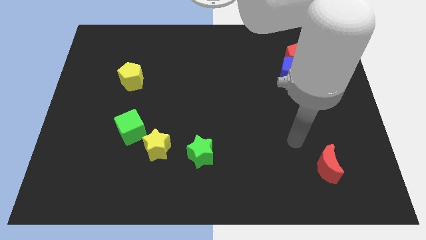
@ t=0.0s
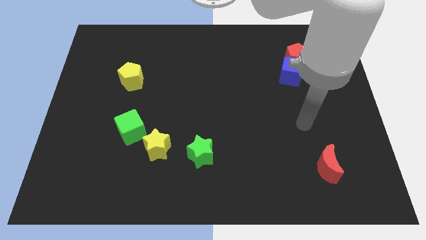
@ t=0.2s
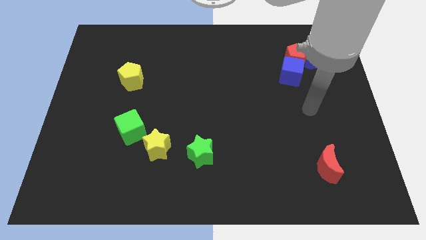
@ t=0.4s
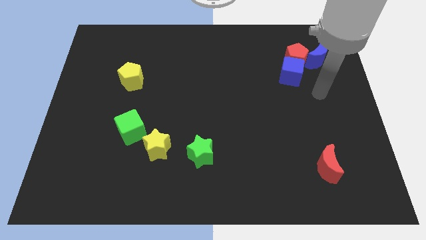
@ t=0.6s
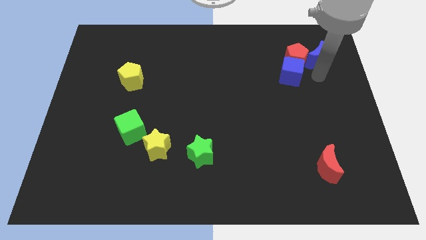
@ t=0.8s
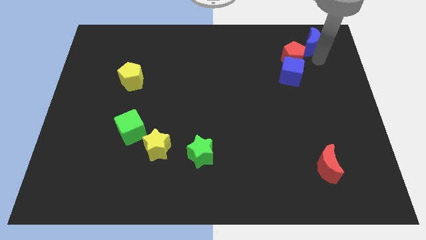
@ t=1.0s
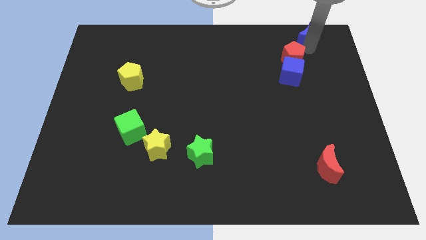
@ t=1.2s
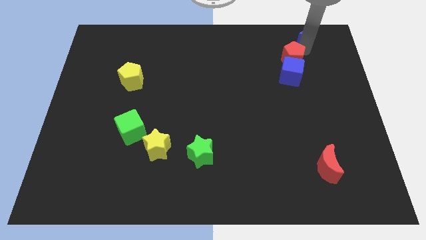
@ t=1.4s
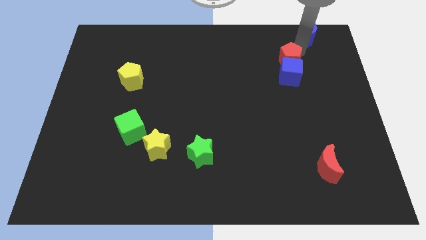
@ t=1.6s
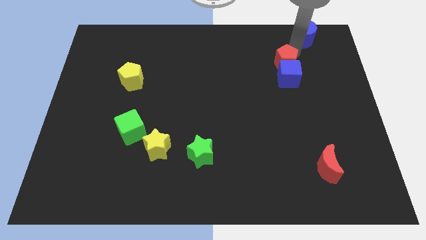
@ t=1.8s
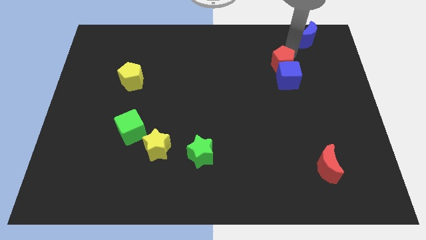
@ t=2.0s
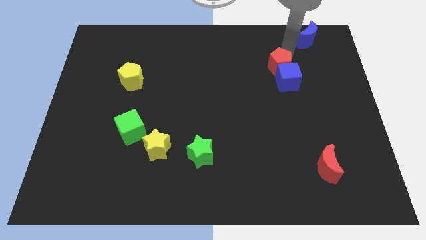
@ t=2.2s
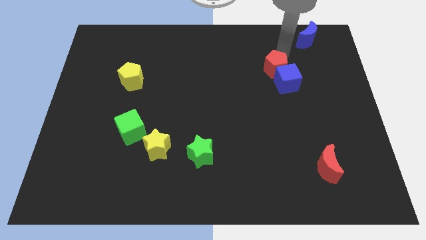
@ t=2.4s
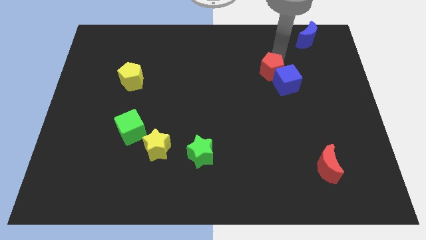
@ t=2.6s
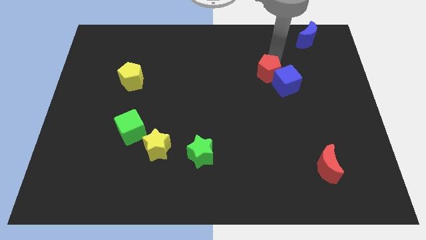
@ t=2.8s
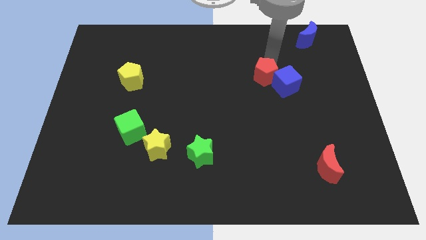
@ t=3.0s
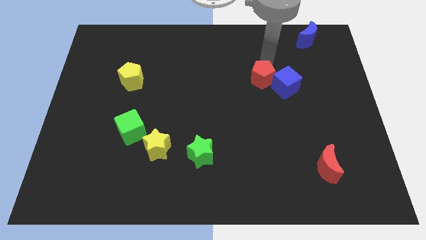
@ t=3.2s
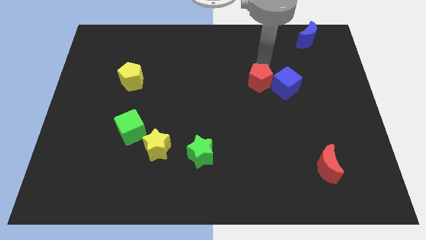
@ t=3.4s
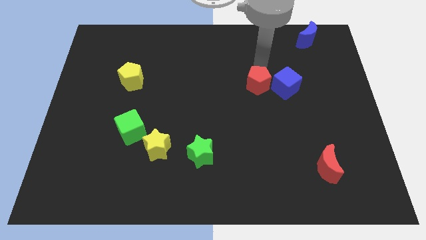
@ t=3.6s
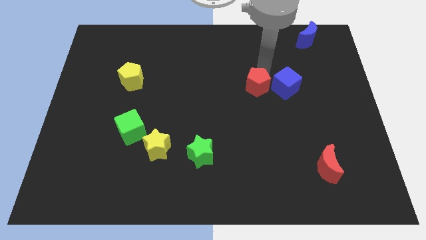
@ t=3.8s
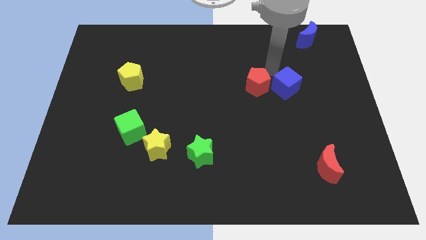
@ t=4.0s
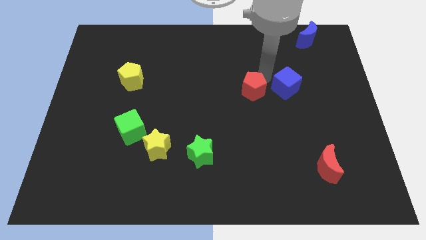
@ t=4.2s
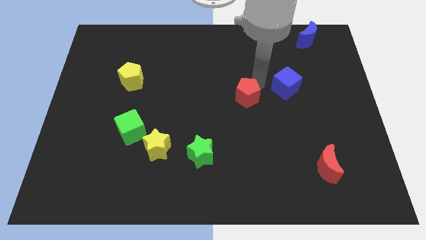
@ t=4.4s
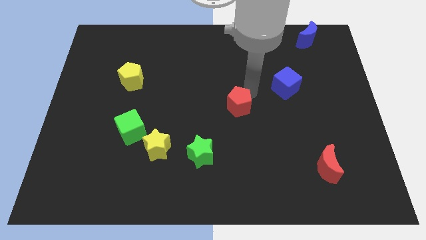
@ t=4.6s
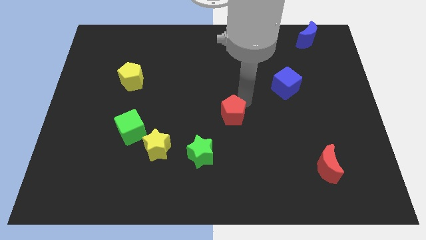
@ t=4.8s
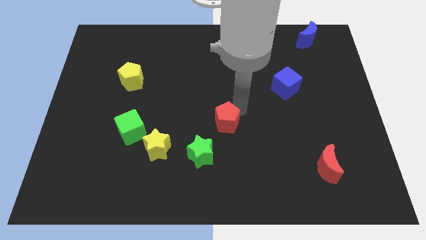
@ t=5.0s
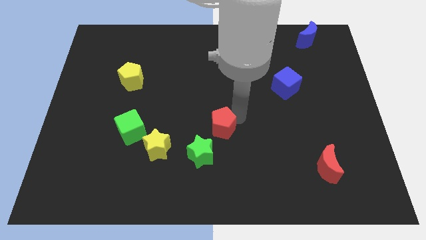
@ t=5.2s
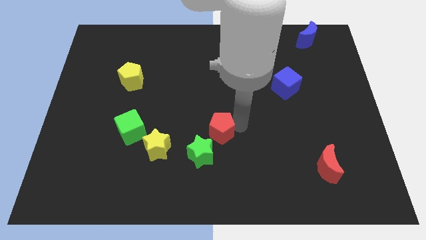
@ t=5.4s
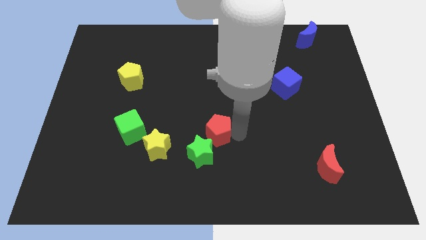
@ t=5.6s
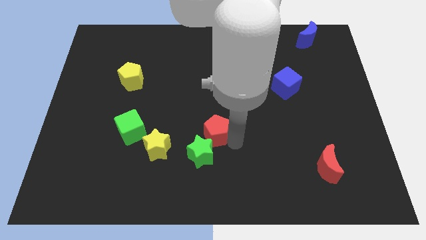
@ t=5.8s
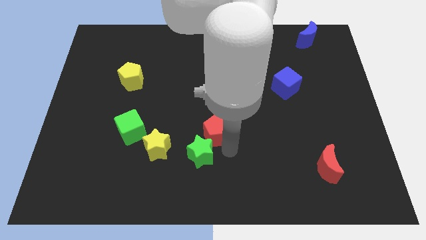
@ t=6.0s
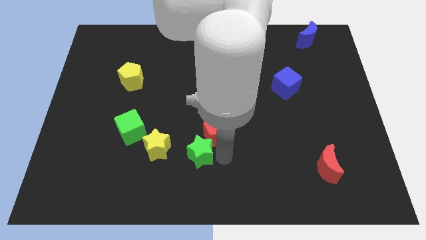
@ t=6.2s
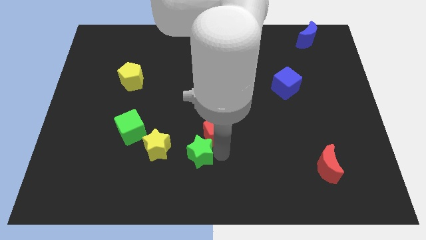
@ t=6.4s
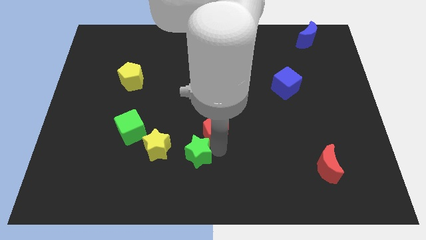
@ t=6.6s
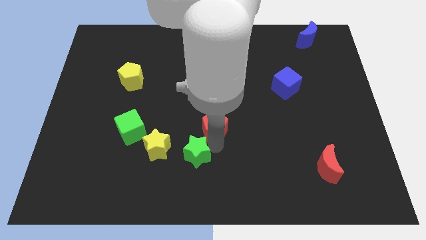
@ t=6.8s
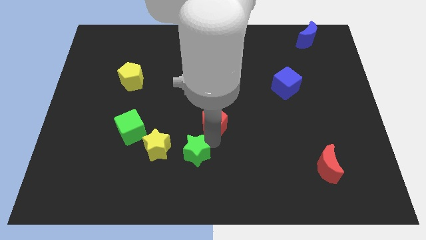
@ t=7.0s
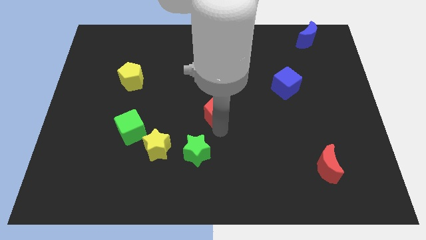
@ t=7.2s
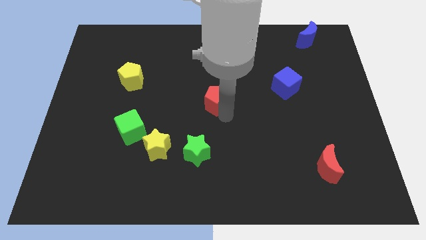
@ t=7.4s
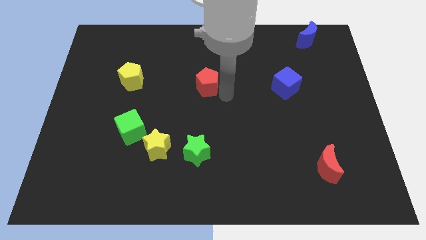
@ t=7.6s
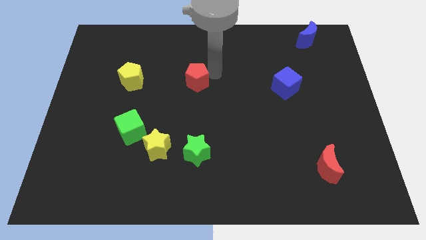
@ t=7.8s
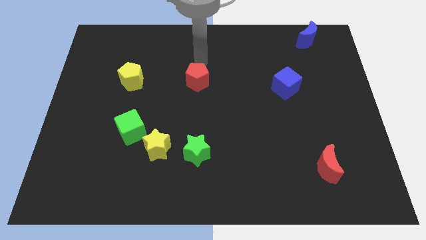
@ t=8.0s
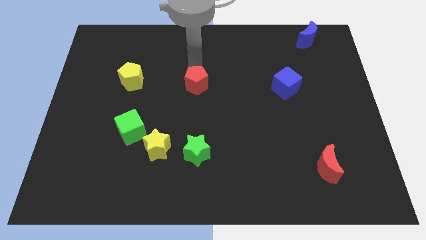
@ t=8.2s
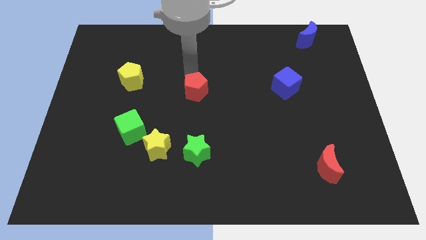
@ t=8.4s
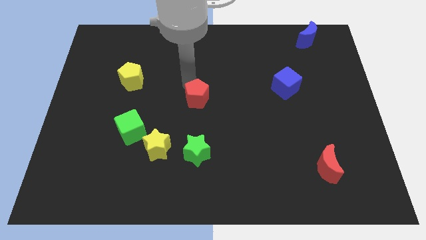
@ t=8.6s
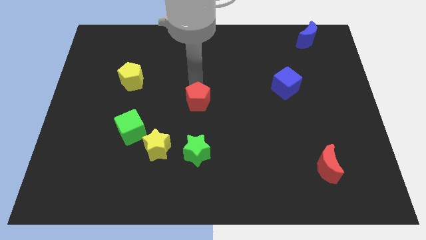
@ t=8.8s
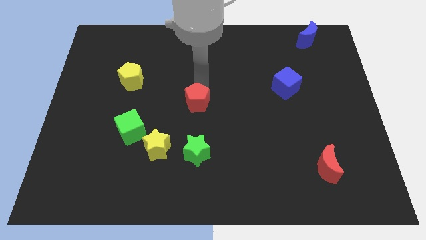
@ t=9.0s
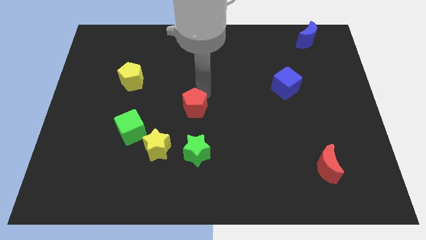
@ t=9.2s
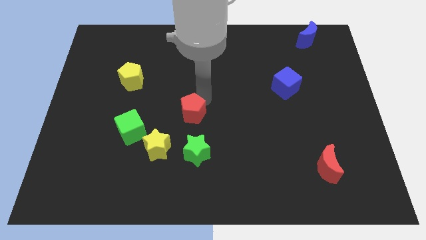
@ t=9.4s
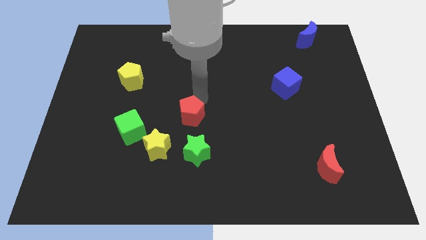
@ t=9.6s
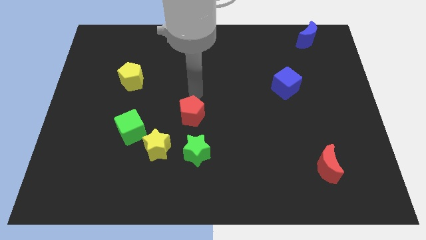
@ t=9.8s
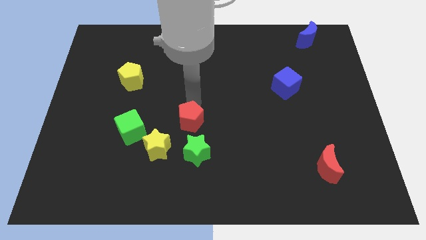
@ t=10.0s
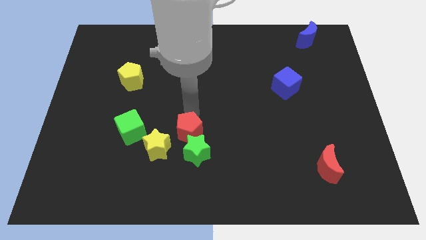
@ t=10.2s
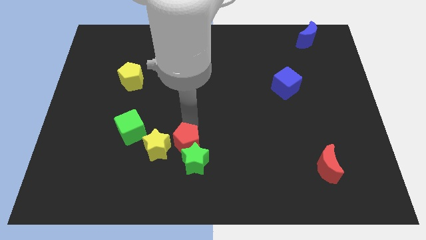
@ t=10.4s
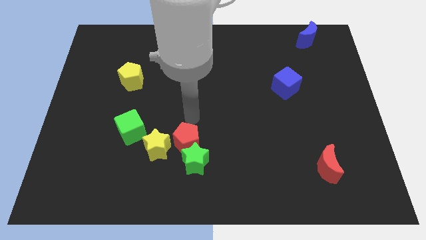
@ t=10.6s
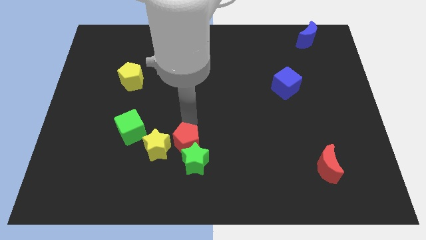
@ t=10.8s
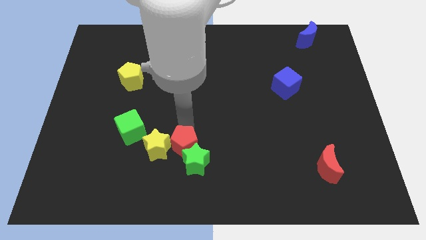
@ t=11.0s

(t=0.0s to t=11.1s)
push the red pentagon diagonally down and to the right of the yellow star

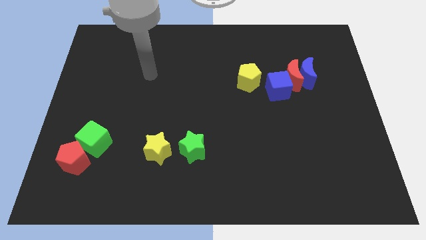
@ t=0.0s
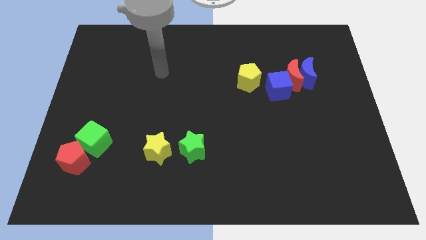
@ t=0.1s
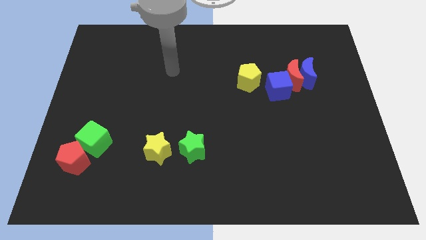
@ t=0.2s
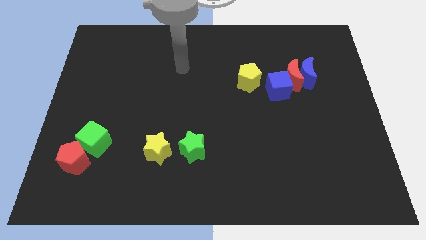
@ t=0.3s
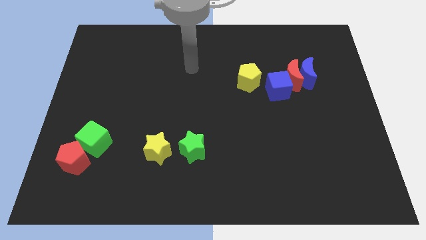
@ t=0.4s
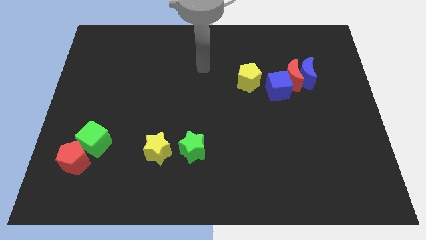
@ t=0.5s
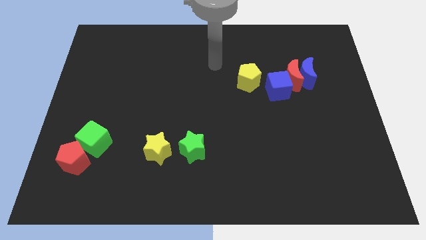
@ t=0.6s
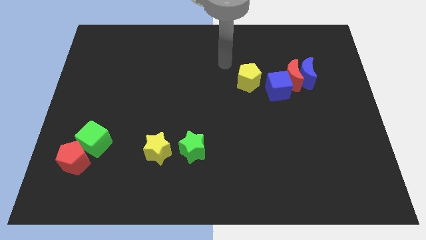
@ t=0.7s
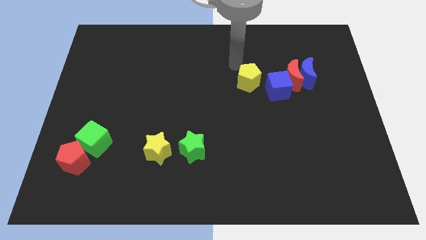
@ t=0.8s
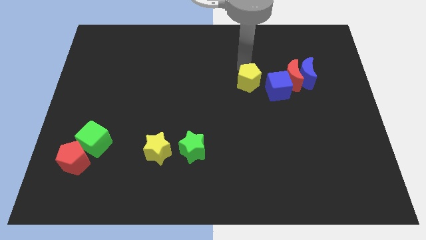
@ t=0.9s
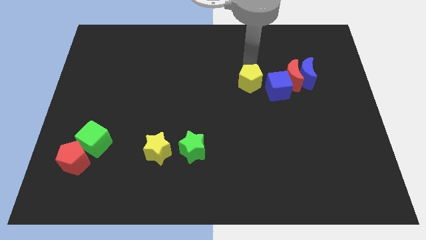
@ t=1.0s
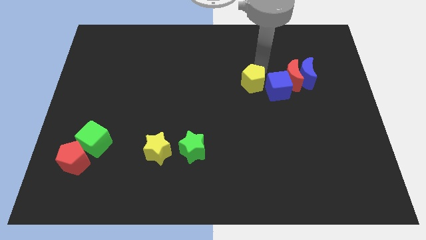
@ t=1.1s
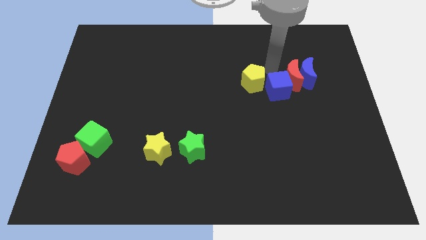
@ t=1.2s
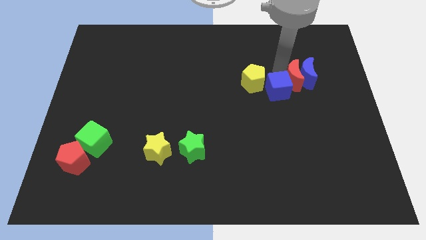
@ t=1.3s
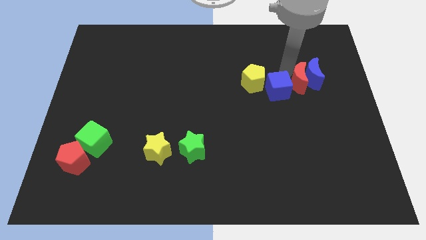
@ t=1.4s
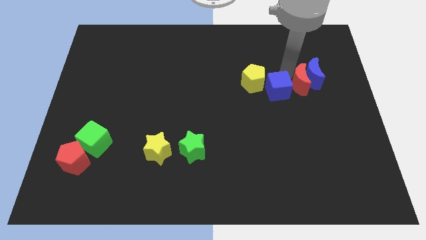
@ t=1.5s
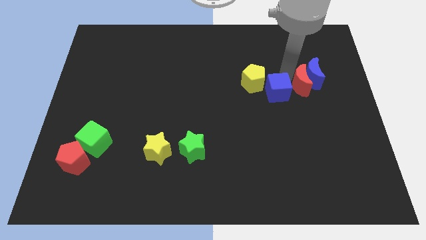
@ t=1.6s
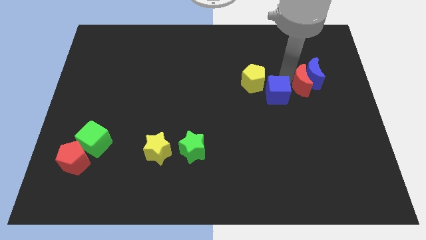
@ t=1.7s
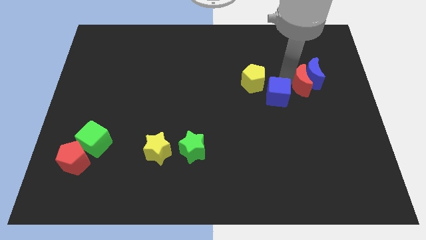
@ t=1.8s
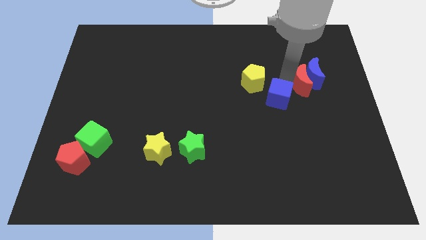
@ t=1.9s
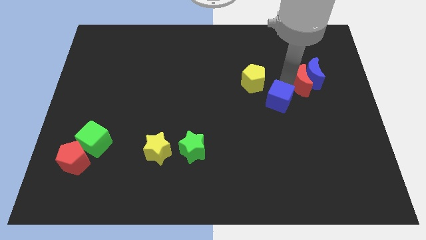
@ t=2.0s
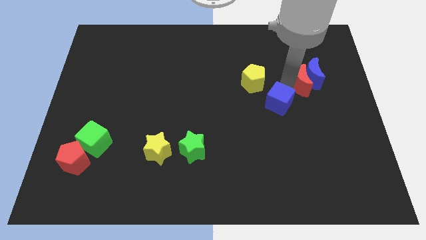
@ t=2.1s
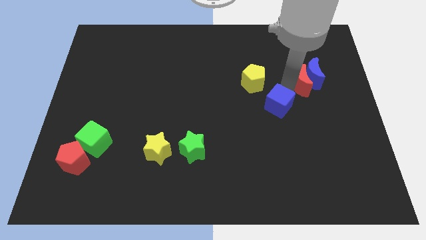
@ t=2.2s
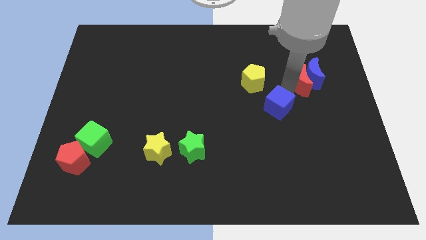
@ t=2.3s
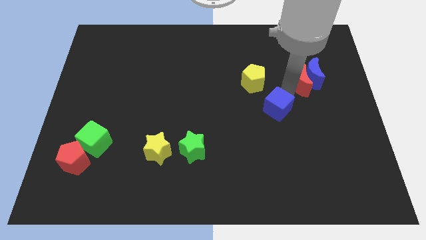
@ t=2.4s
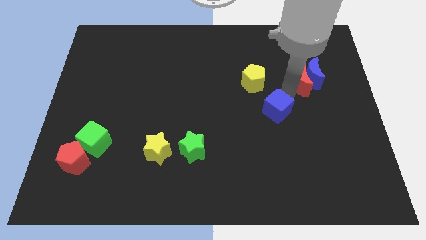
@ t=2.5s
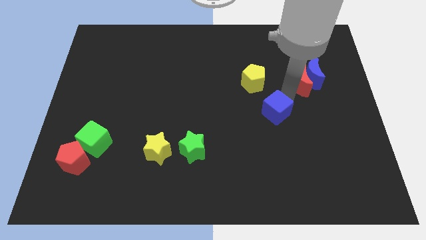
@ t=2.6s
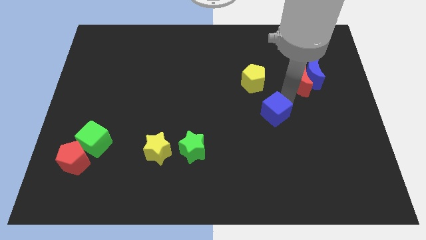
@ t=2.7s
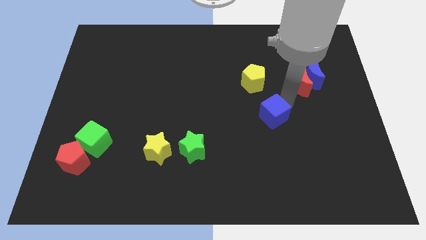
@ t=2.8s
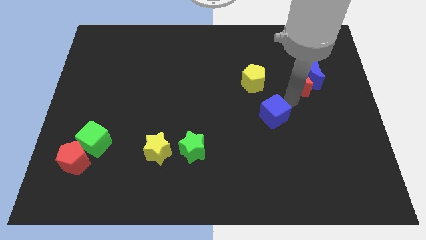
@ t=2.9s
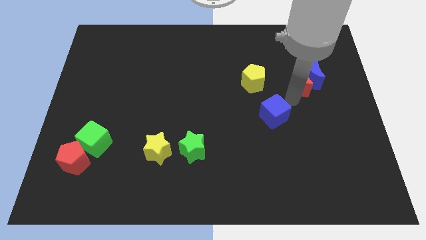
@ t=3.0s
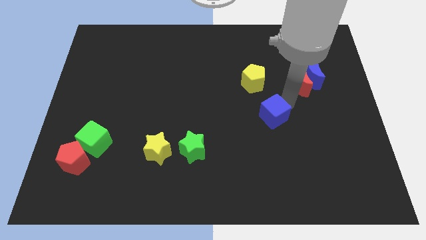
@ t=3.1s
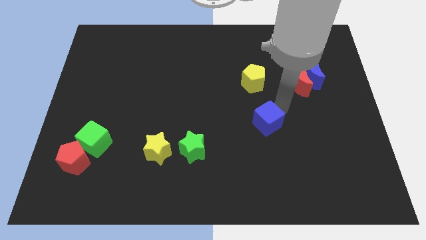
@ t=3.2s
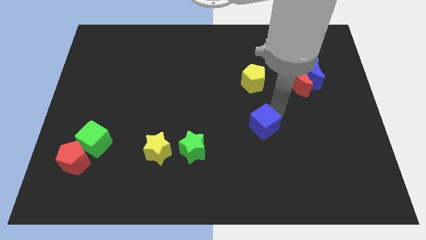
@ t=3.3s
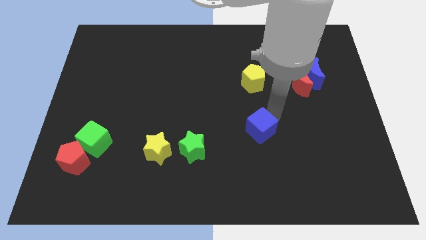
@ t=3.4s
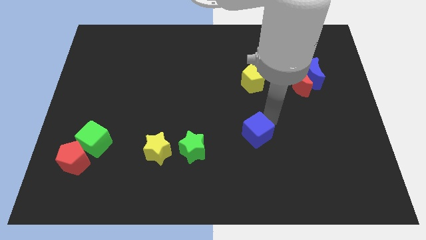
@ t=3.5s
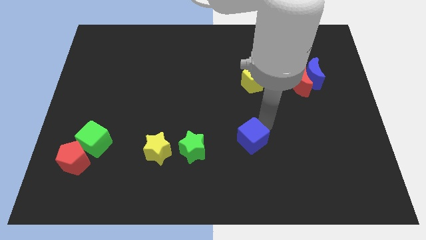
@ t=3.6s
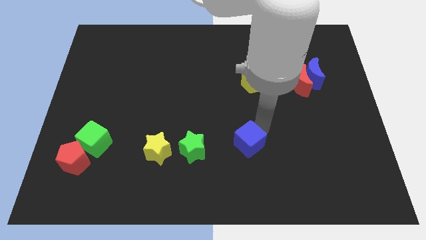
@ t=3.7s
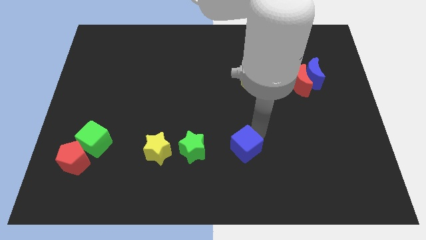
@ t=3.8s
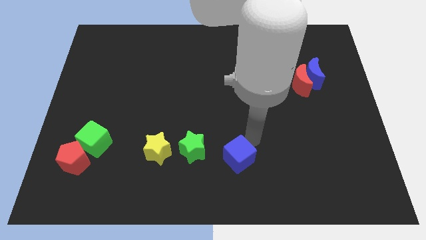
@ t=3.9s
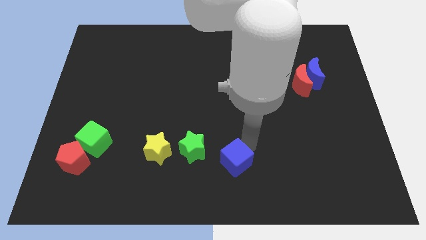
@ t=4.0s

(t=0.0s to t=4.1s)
move the blue cube to the bottom right side of the green star
